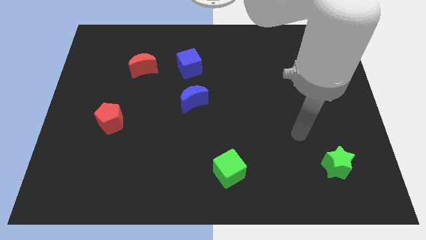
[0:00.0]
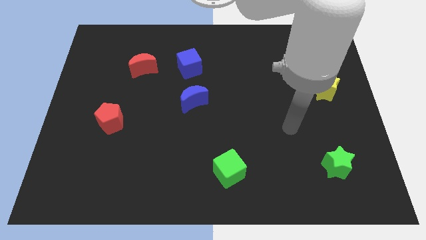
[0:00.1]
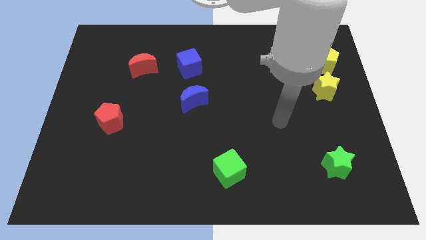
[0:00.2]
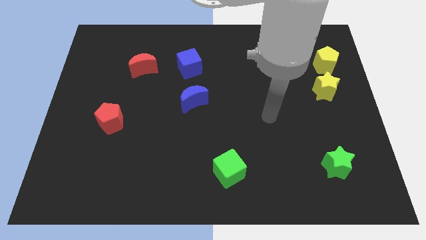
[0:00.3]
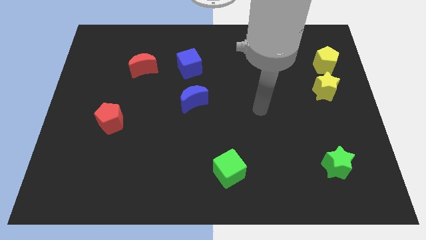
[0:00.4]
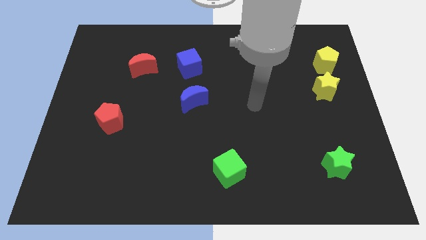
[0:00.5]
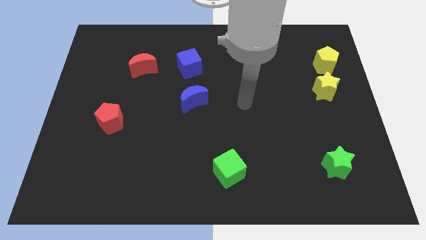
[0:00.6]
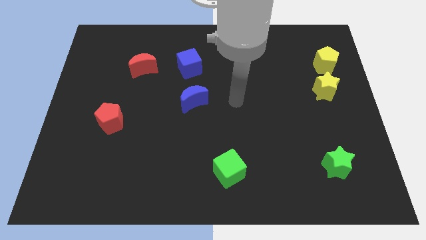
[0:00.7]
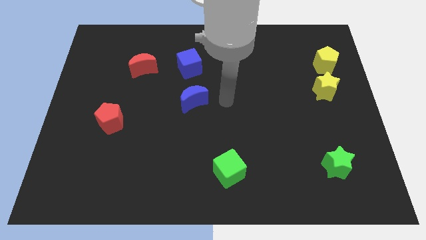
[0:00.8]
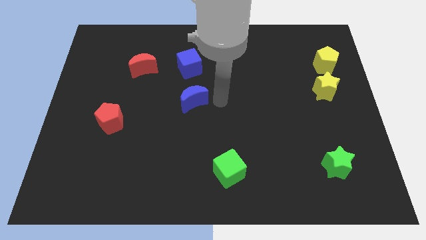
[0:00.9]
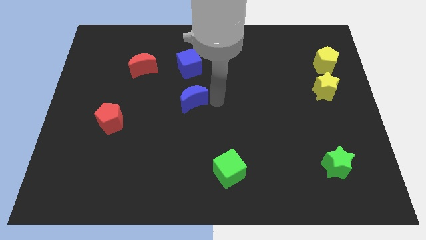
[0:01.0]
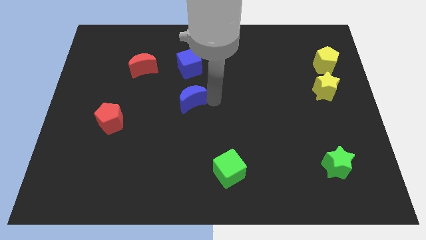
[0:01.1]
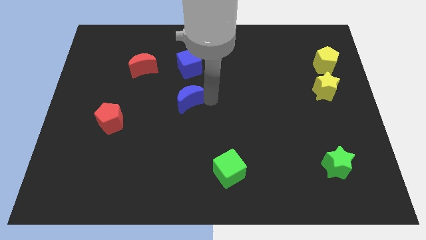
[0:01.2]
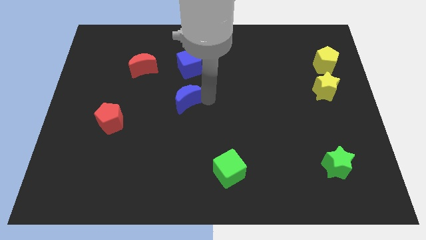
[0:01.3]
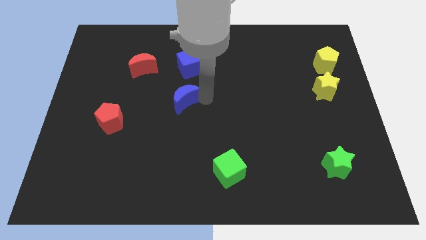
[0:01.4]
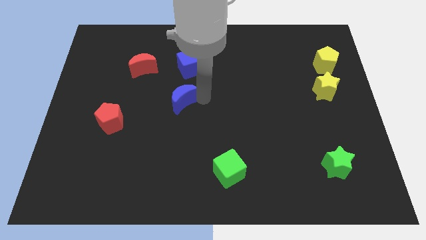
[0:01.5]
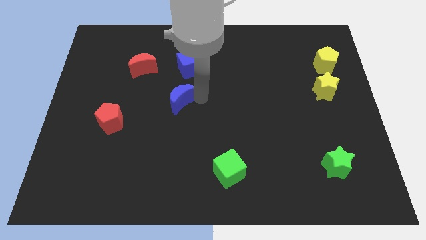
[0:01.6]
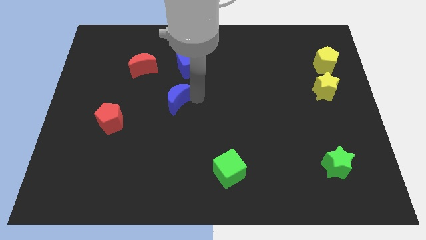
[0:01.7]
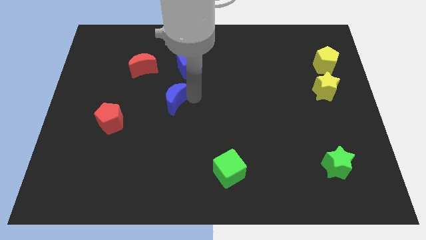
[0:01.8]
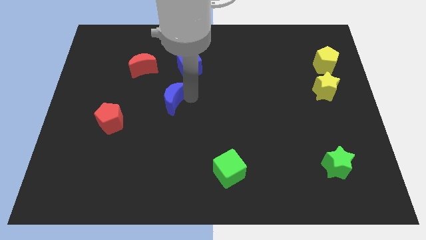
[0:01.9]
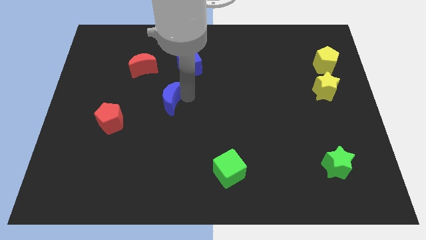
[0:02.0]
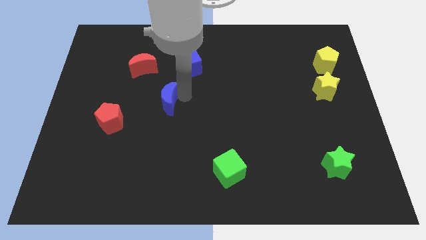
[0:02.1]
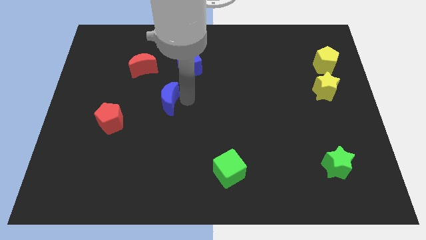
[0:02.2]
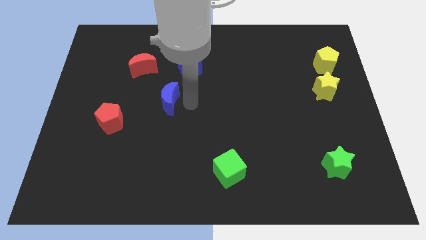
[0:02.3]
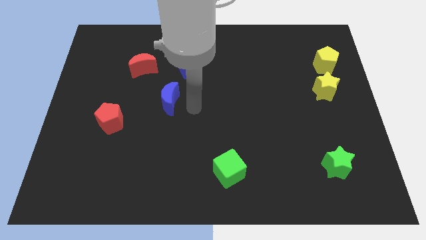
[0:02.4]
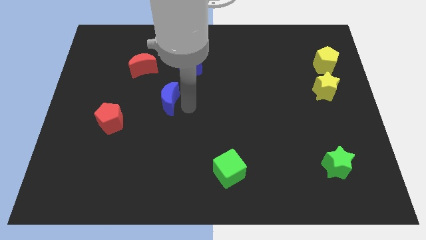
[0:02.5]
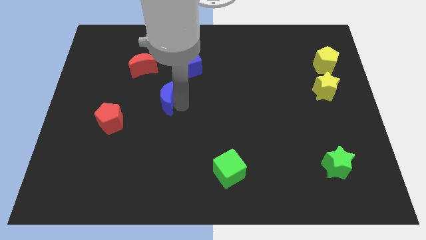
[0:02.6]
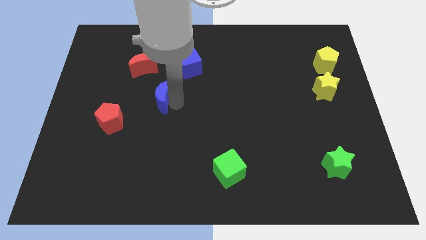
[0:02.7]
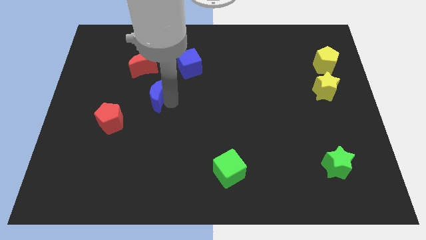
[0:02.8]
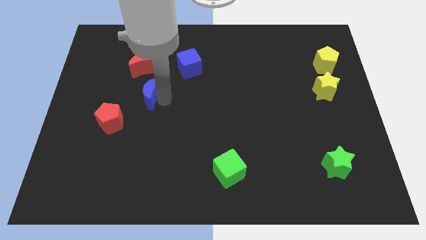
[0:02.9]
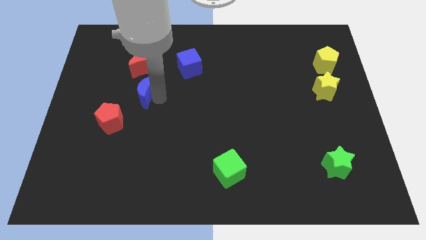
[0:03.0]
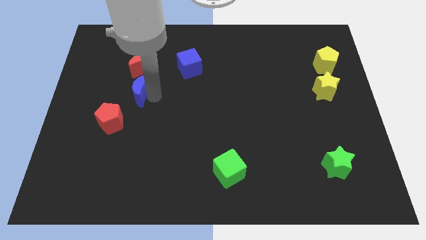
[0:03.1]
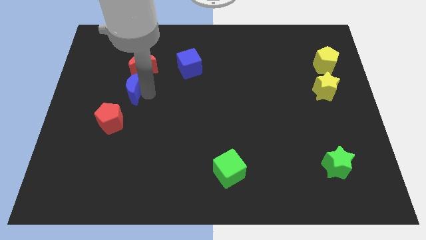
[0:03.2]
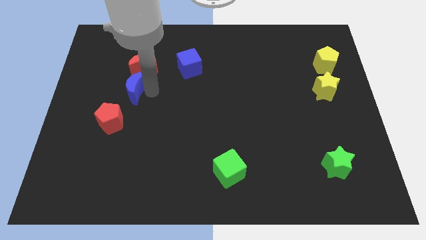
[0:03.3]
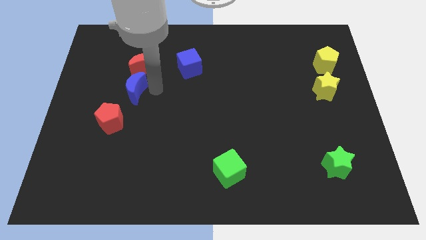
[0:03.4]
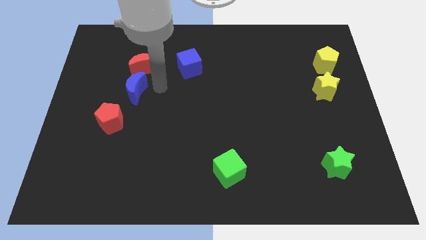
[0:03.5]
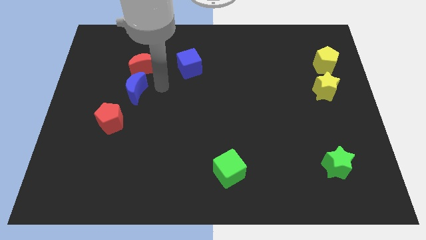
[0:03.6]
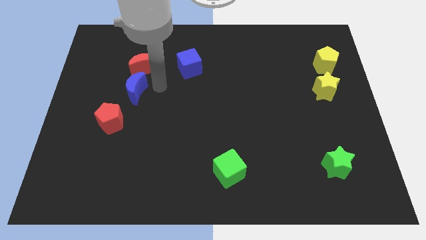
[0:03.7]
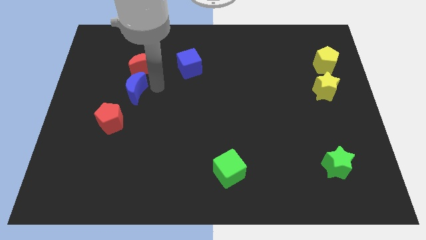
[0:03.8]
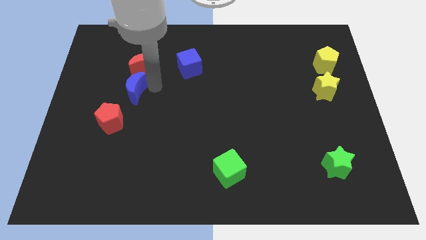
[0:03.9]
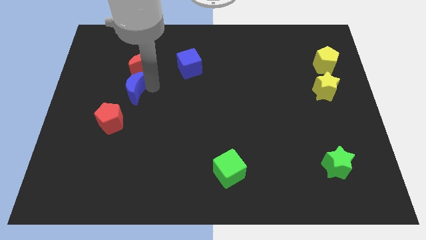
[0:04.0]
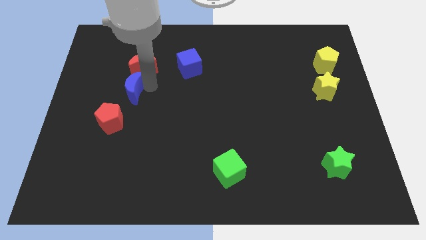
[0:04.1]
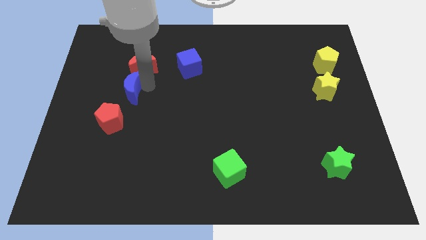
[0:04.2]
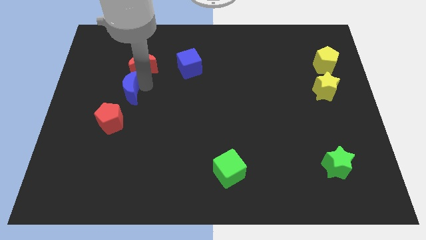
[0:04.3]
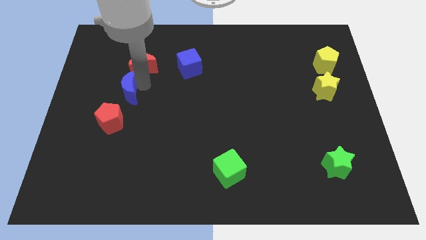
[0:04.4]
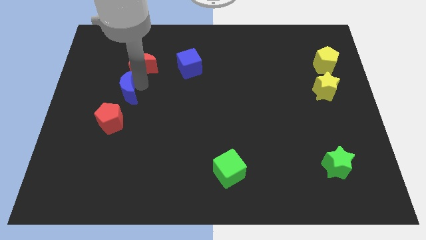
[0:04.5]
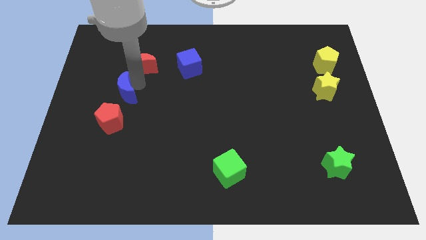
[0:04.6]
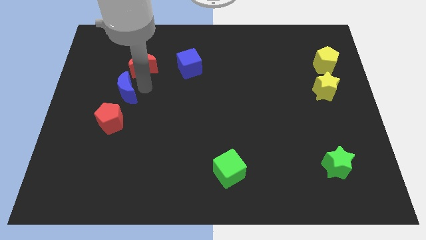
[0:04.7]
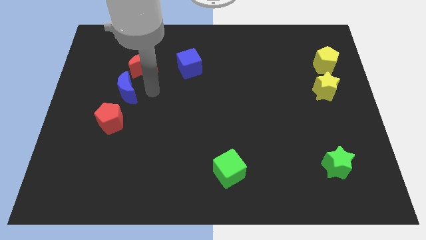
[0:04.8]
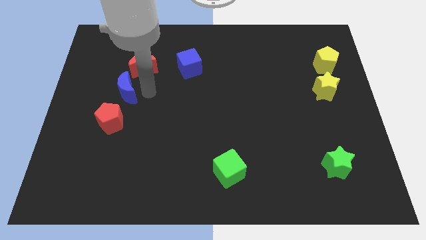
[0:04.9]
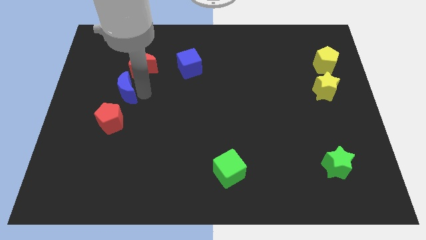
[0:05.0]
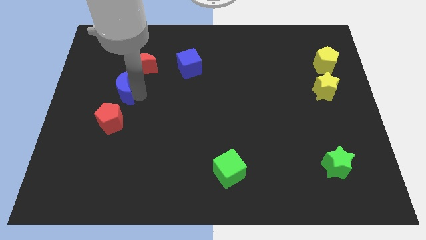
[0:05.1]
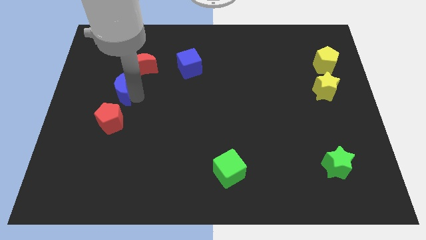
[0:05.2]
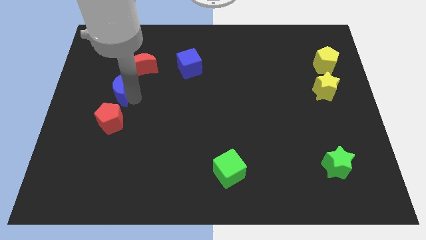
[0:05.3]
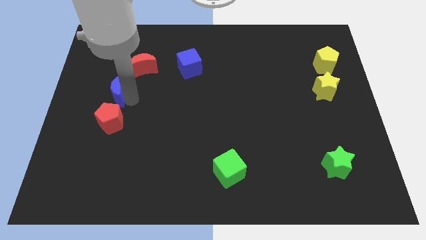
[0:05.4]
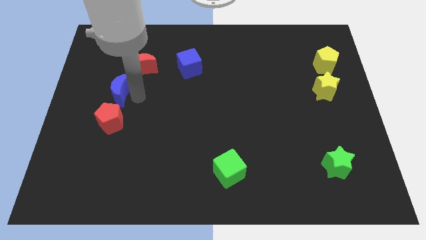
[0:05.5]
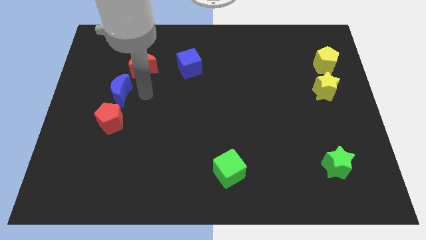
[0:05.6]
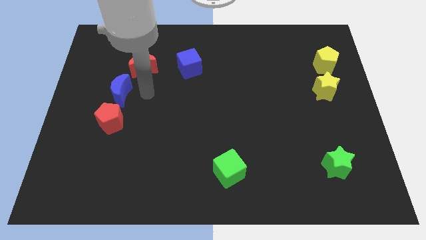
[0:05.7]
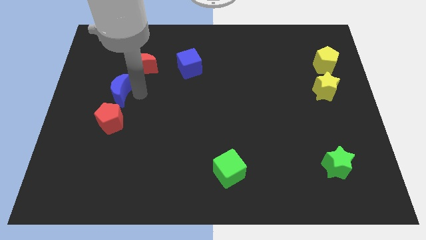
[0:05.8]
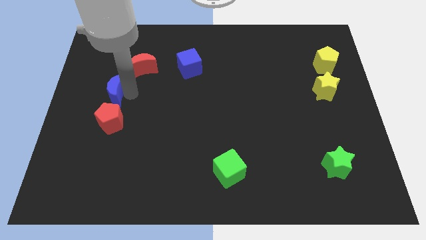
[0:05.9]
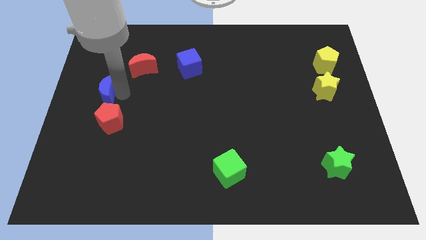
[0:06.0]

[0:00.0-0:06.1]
slide the blue moon to the left side
